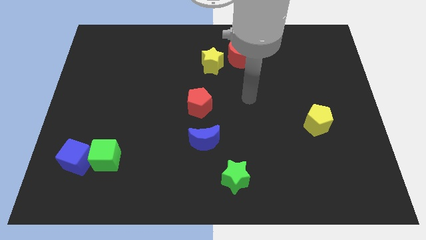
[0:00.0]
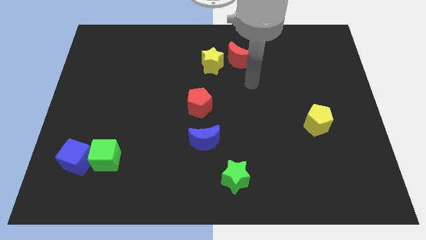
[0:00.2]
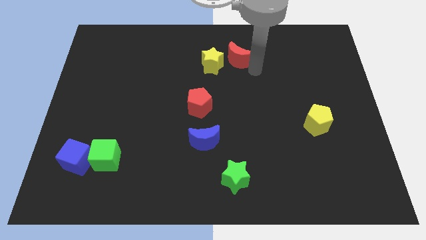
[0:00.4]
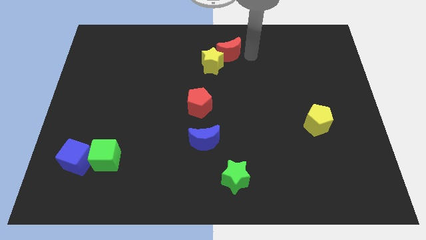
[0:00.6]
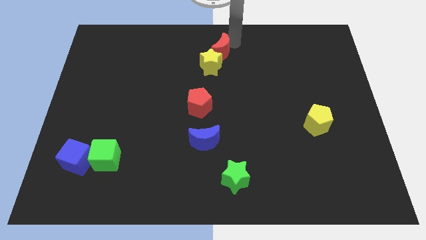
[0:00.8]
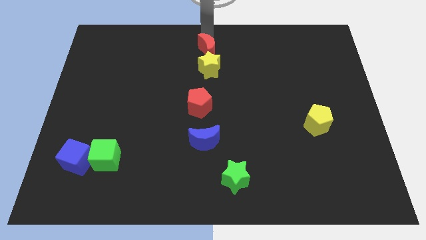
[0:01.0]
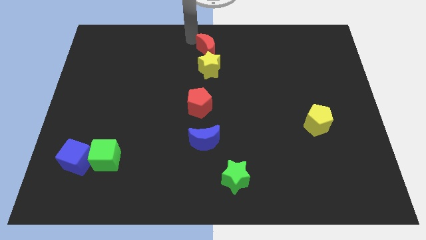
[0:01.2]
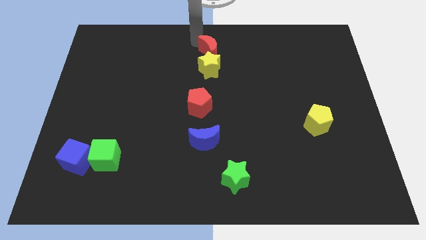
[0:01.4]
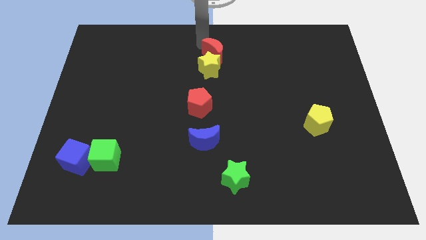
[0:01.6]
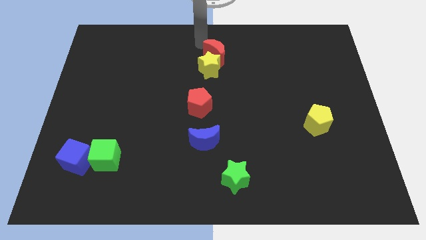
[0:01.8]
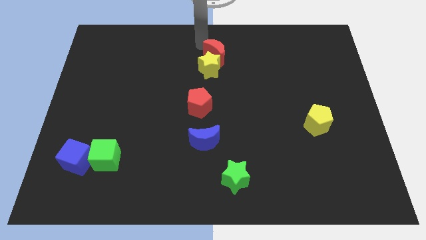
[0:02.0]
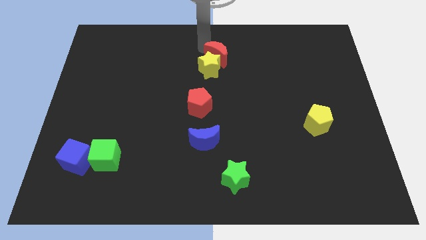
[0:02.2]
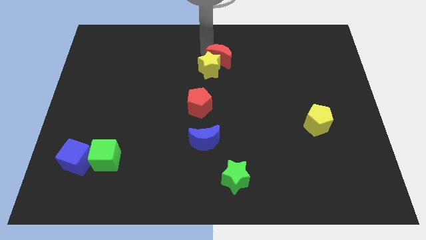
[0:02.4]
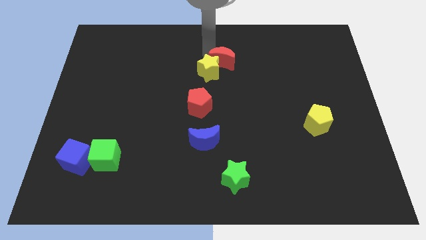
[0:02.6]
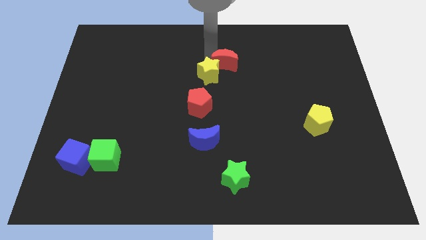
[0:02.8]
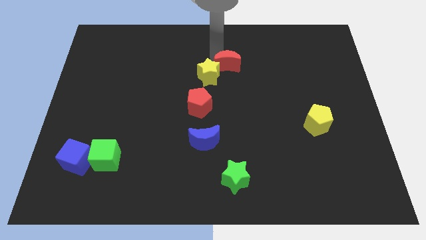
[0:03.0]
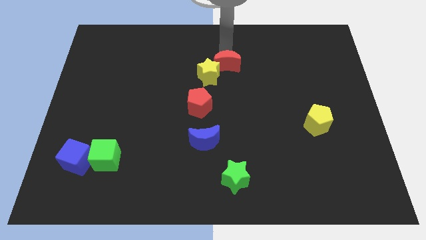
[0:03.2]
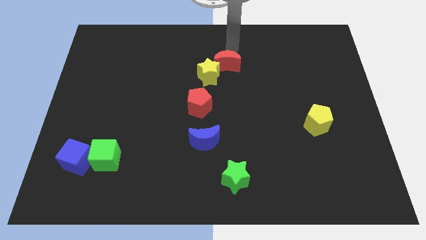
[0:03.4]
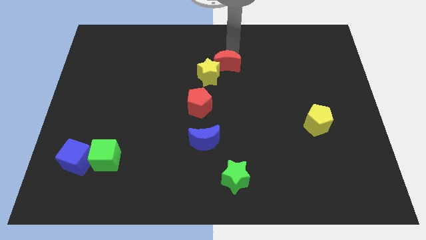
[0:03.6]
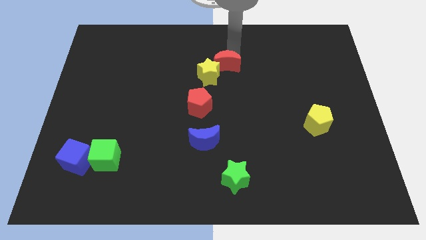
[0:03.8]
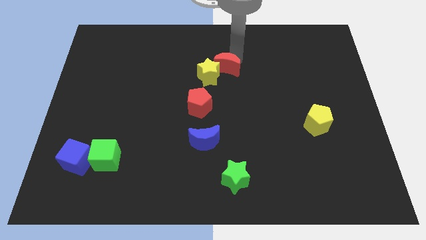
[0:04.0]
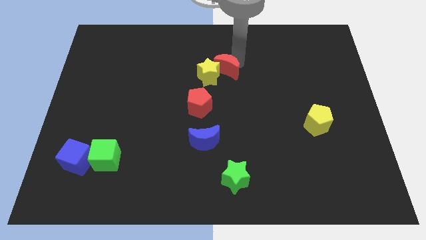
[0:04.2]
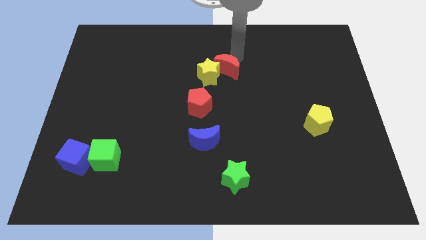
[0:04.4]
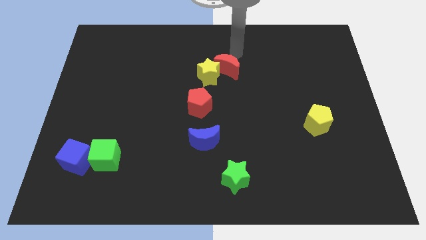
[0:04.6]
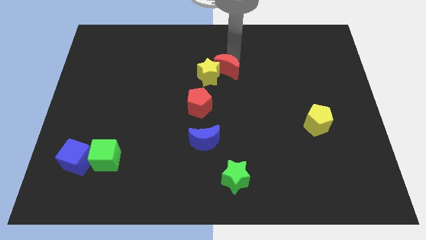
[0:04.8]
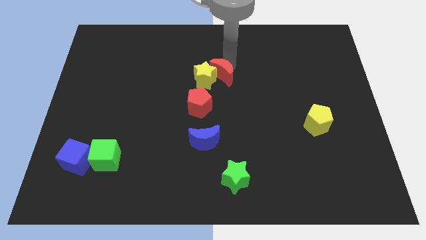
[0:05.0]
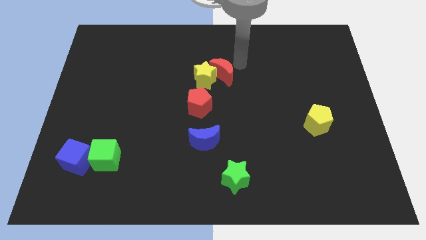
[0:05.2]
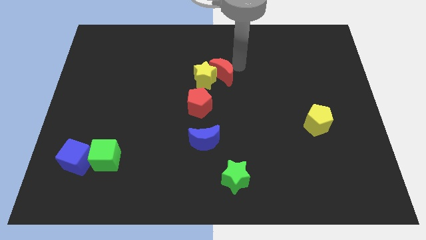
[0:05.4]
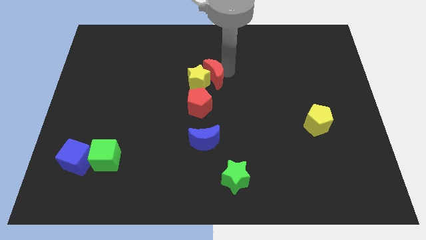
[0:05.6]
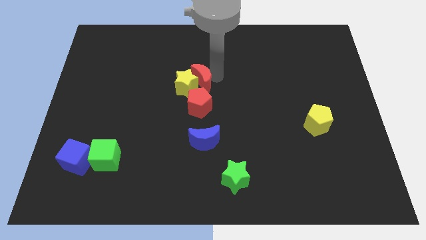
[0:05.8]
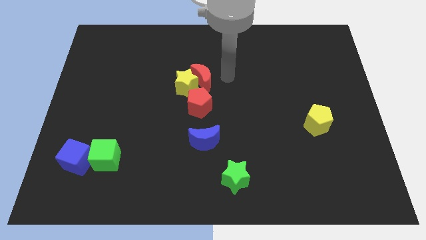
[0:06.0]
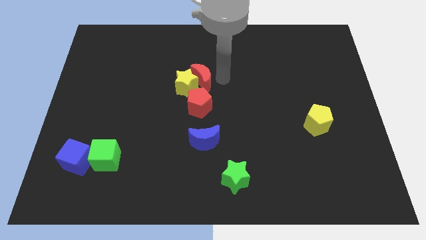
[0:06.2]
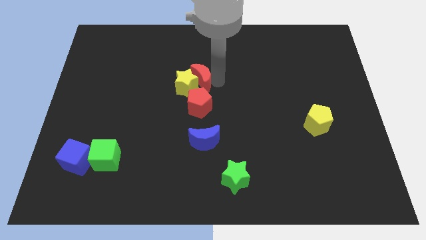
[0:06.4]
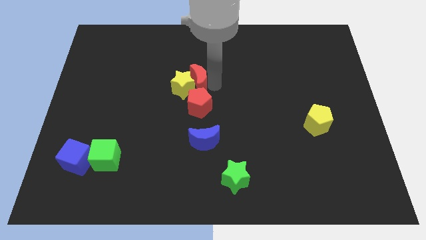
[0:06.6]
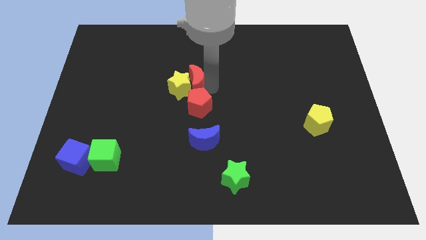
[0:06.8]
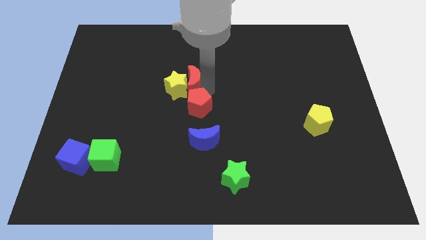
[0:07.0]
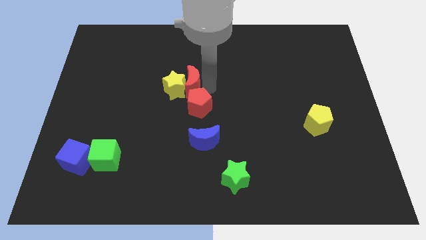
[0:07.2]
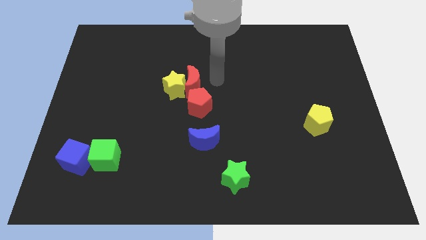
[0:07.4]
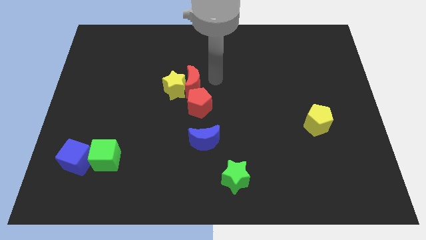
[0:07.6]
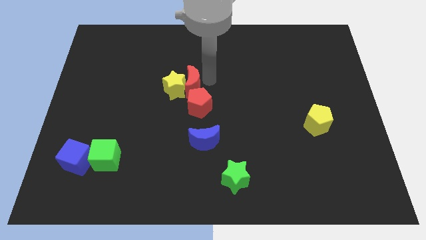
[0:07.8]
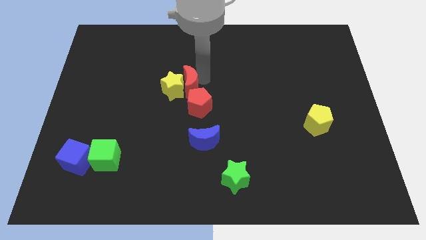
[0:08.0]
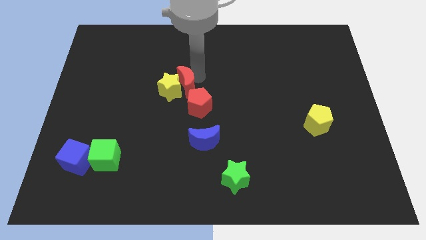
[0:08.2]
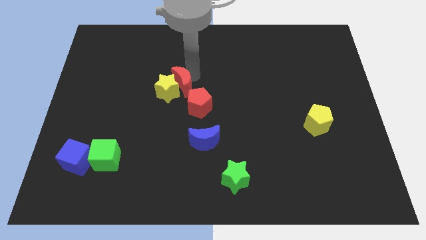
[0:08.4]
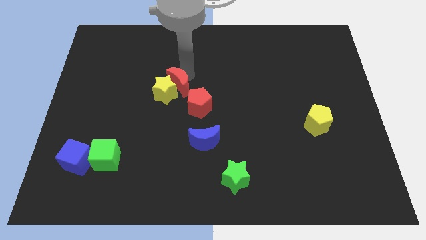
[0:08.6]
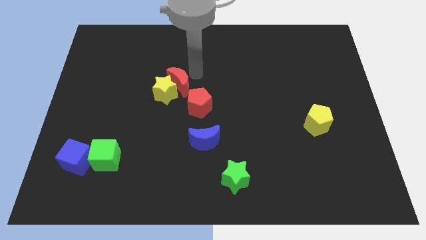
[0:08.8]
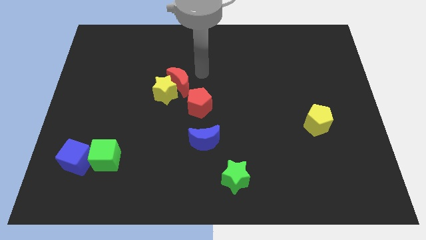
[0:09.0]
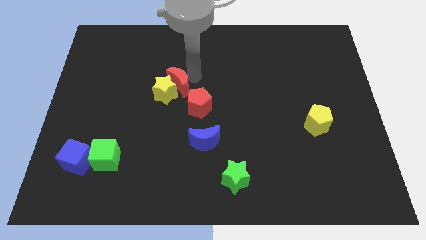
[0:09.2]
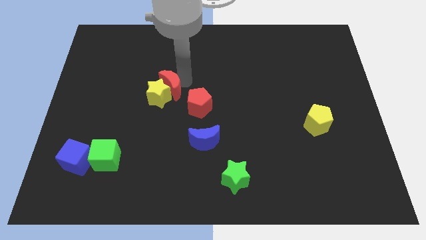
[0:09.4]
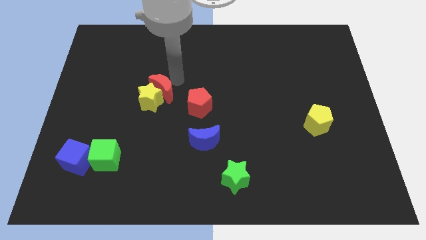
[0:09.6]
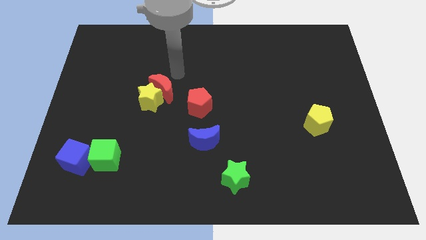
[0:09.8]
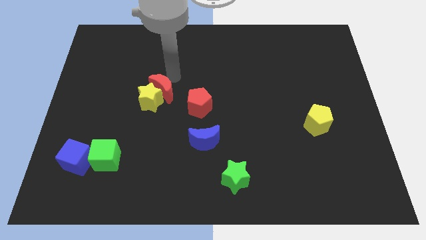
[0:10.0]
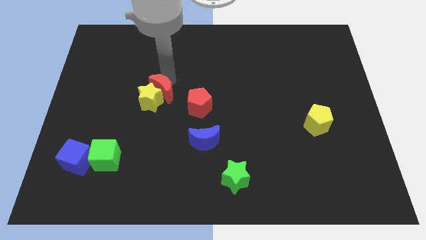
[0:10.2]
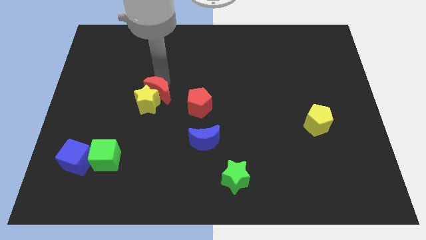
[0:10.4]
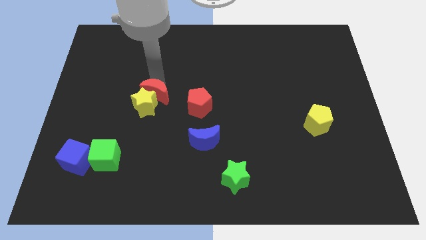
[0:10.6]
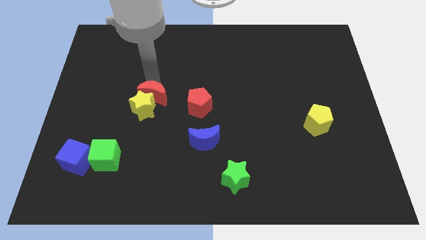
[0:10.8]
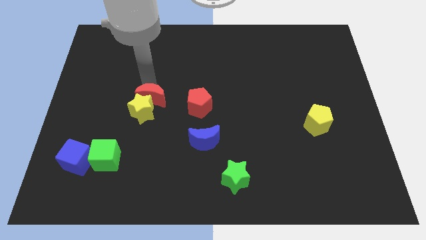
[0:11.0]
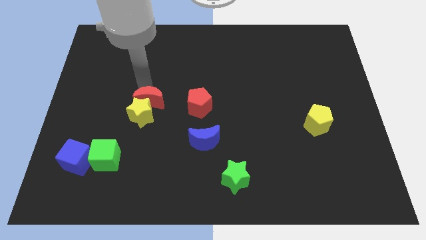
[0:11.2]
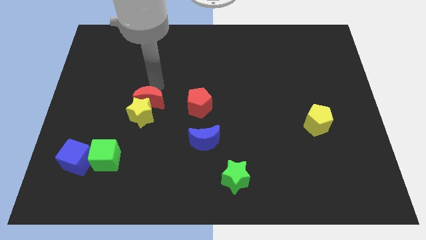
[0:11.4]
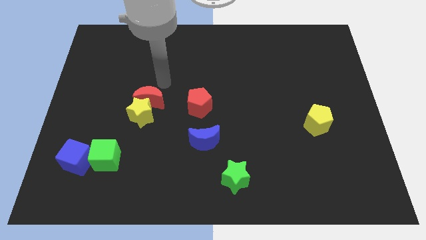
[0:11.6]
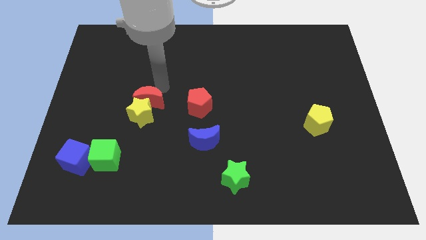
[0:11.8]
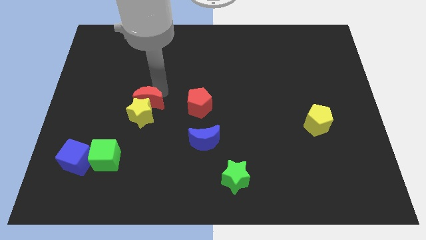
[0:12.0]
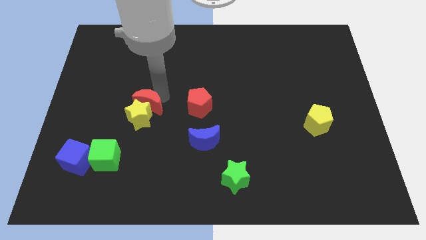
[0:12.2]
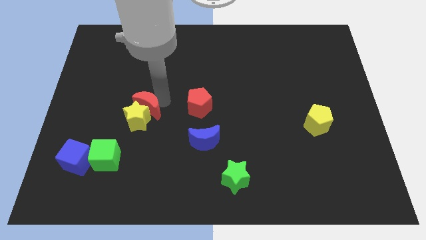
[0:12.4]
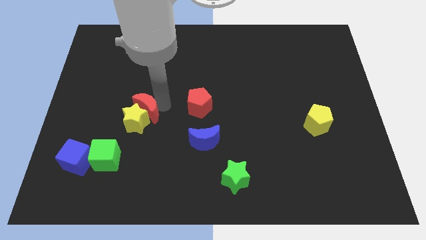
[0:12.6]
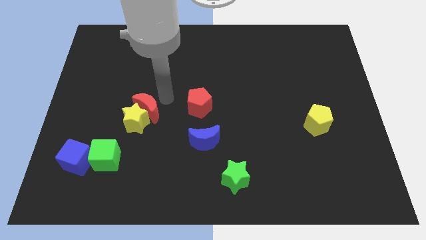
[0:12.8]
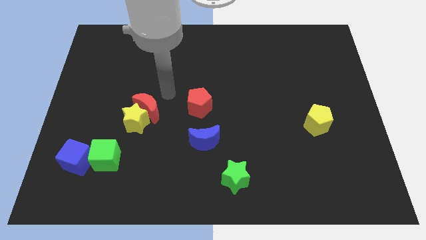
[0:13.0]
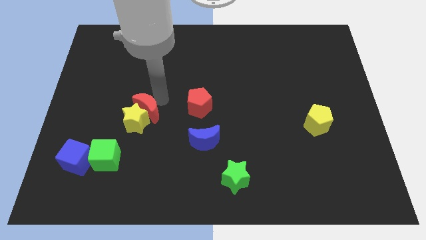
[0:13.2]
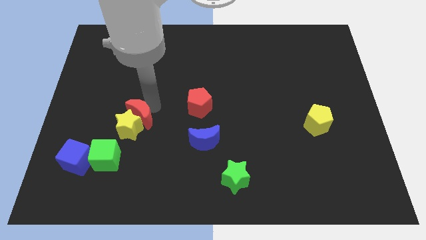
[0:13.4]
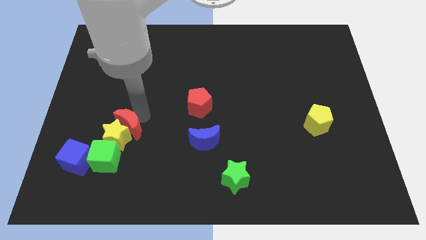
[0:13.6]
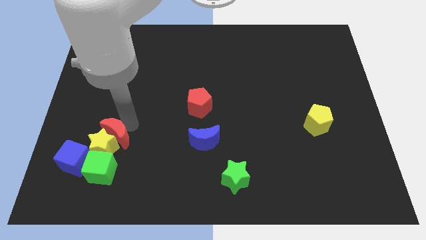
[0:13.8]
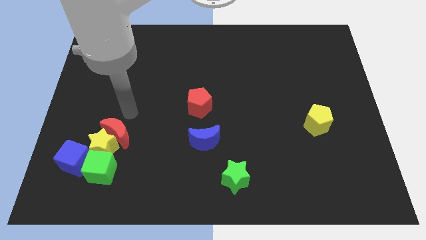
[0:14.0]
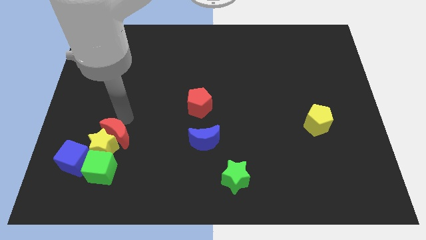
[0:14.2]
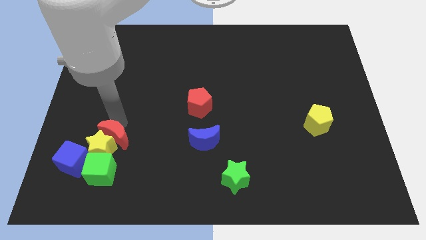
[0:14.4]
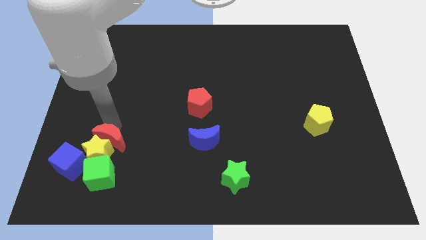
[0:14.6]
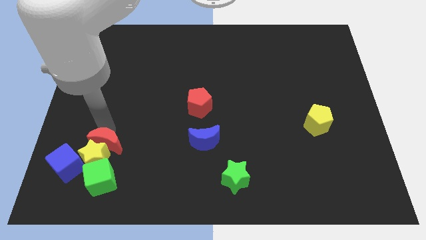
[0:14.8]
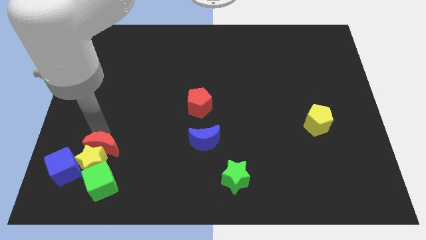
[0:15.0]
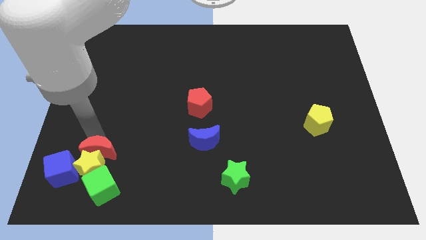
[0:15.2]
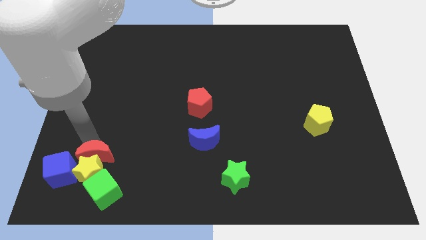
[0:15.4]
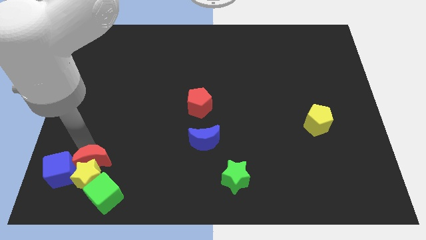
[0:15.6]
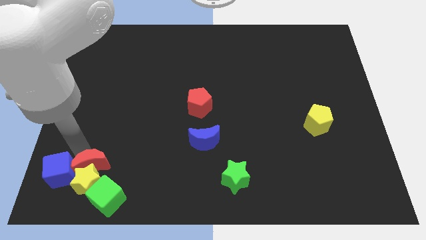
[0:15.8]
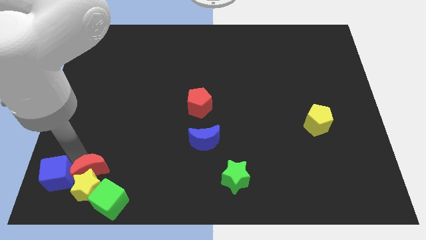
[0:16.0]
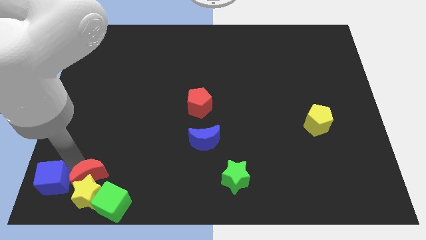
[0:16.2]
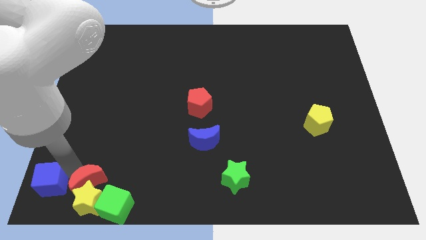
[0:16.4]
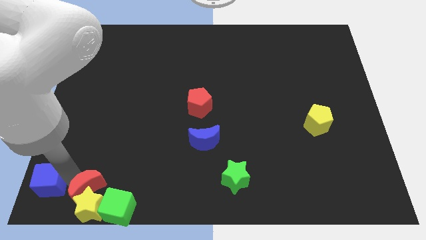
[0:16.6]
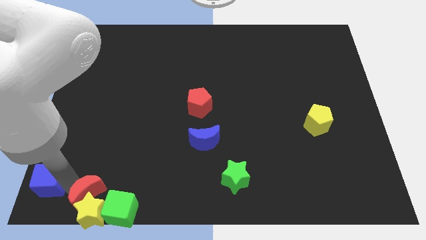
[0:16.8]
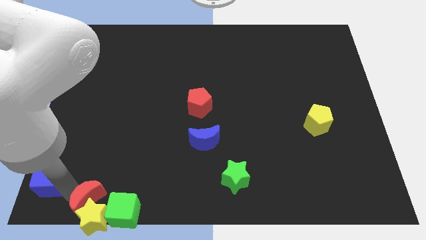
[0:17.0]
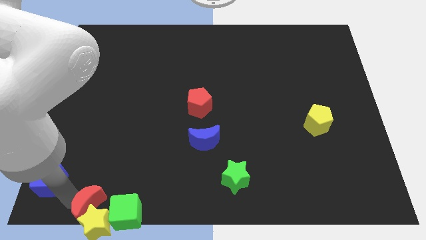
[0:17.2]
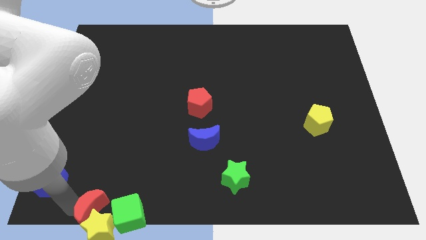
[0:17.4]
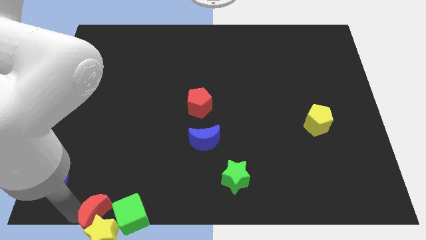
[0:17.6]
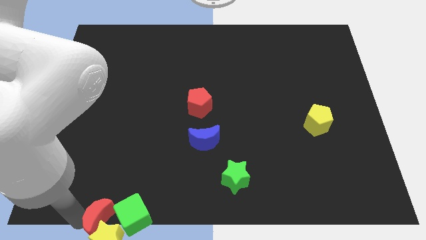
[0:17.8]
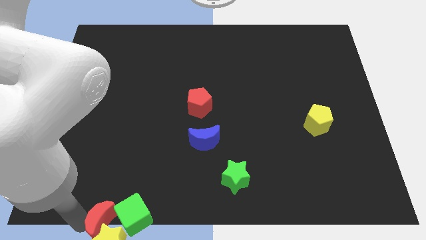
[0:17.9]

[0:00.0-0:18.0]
push the red moon next to the green cube
